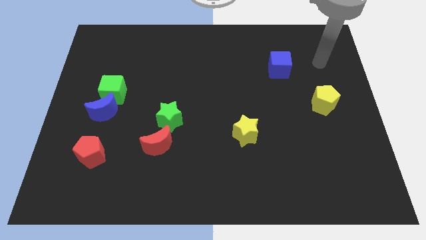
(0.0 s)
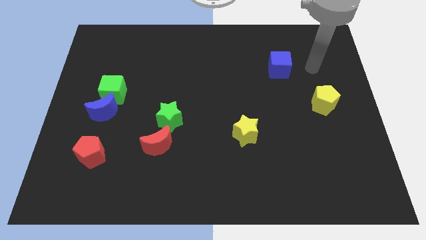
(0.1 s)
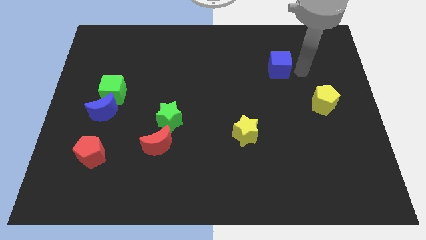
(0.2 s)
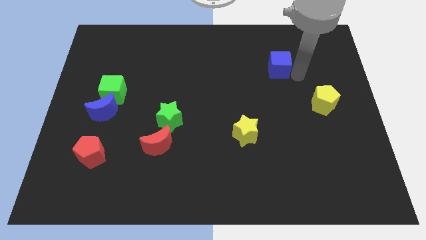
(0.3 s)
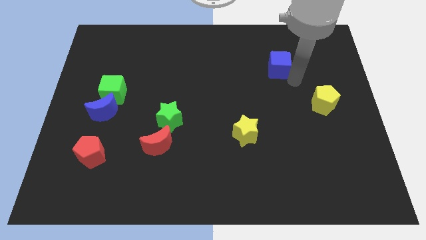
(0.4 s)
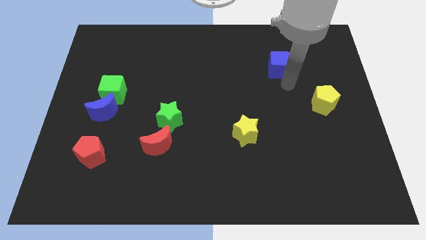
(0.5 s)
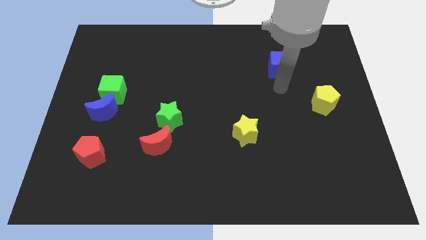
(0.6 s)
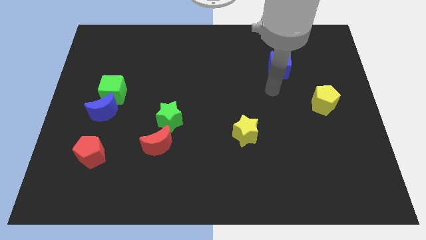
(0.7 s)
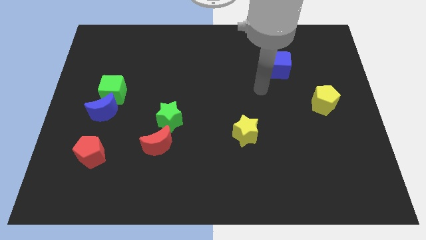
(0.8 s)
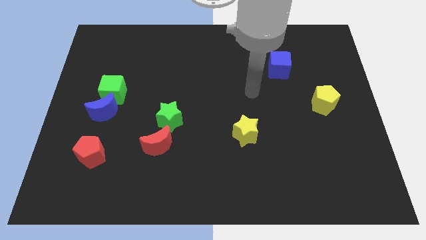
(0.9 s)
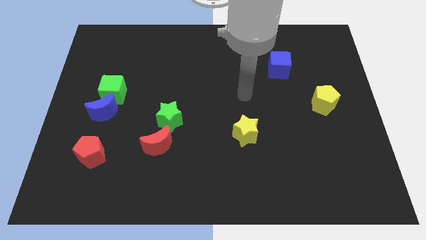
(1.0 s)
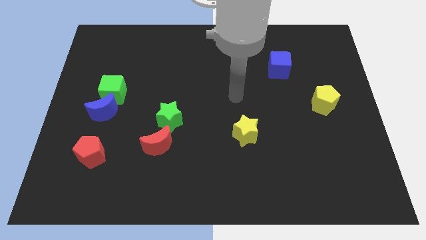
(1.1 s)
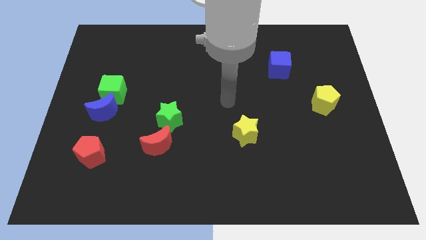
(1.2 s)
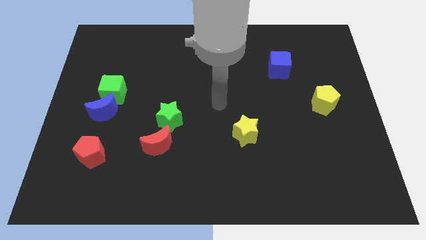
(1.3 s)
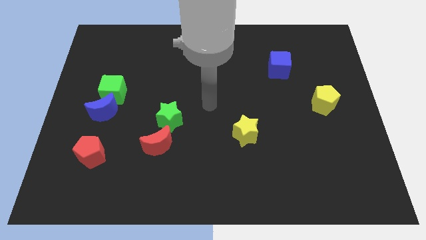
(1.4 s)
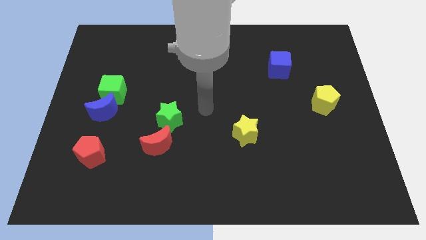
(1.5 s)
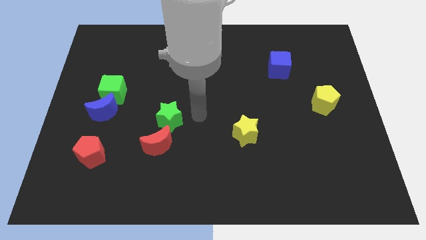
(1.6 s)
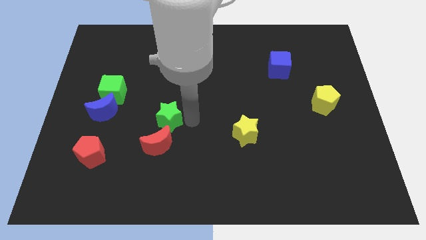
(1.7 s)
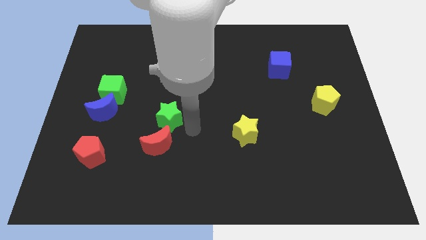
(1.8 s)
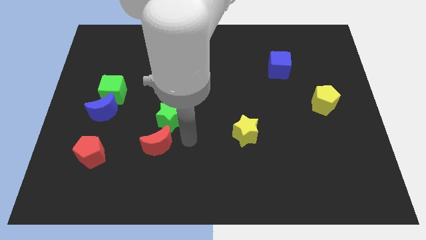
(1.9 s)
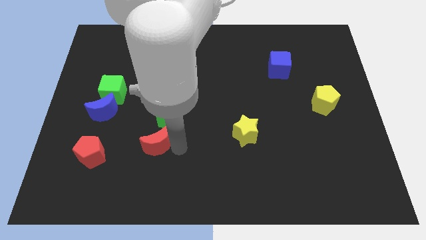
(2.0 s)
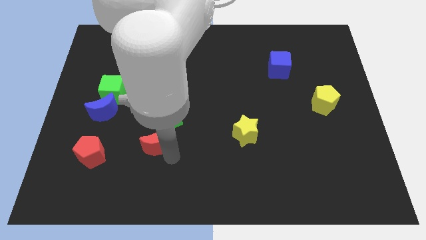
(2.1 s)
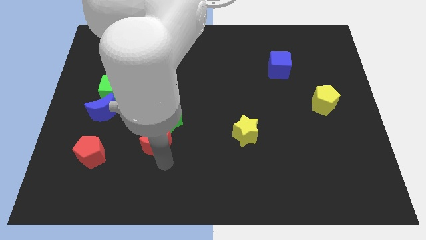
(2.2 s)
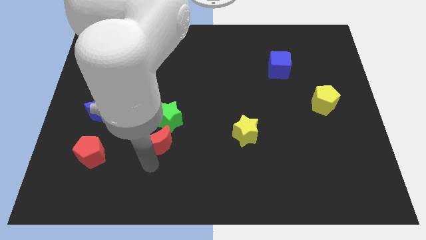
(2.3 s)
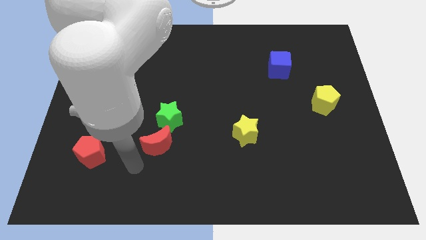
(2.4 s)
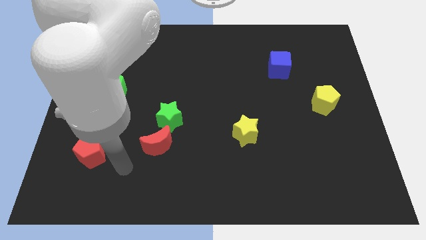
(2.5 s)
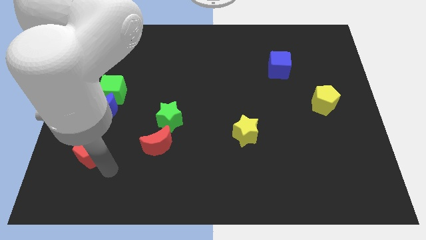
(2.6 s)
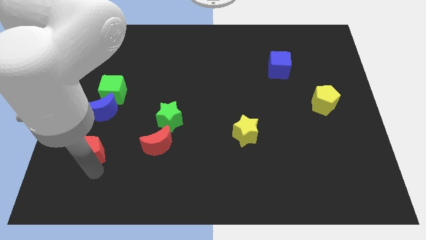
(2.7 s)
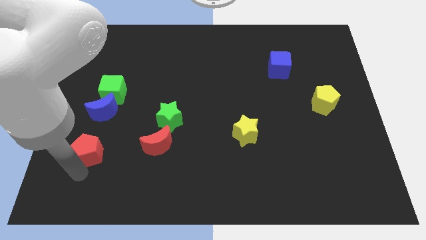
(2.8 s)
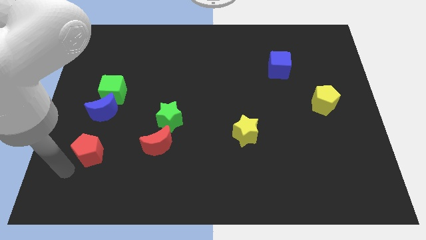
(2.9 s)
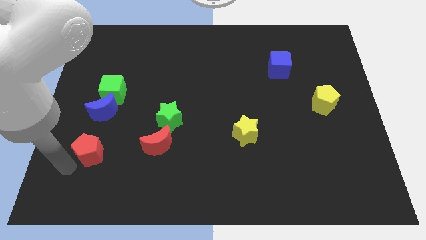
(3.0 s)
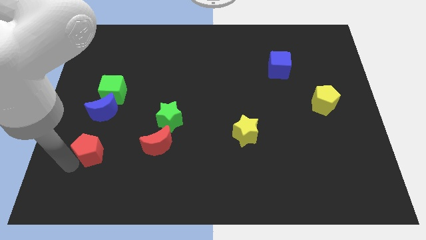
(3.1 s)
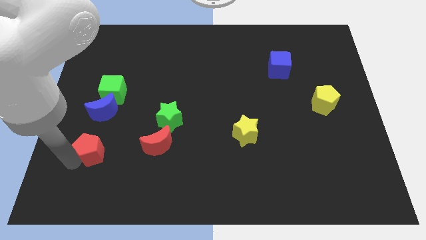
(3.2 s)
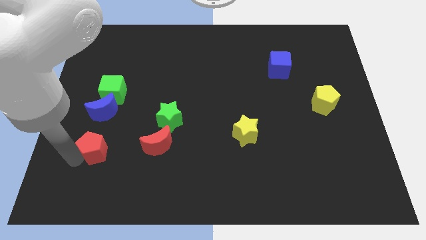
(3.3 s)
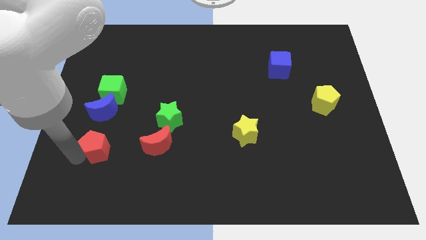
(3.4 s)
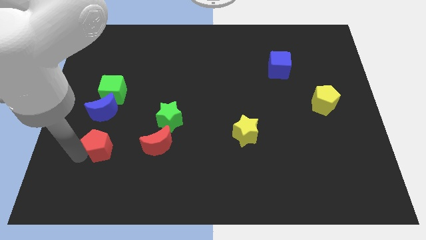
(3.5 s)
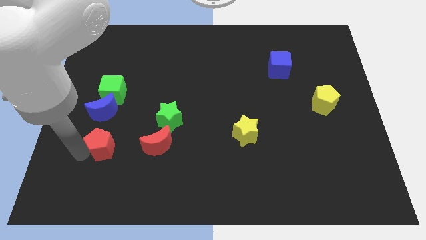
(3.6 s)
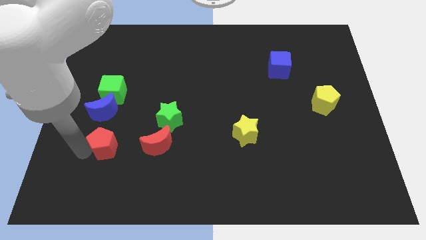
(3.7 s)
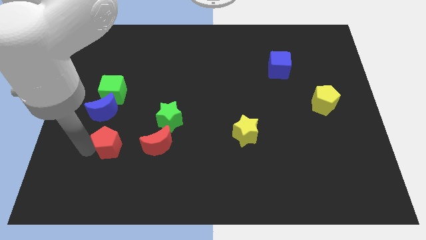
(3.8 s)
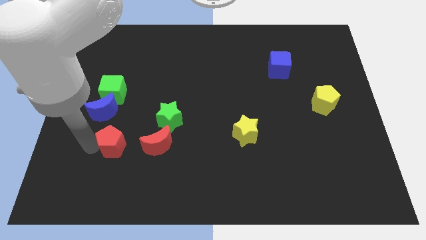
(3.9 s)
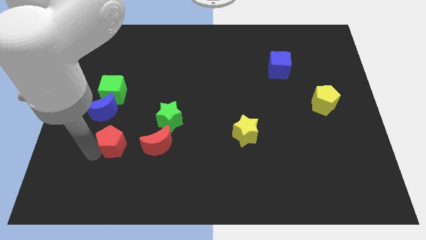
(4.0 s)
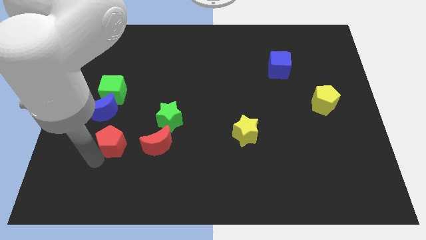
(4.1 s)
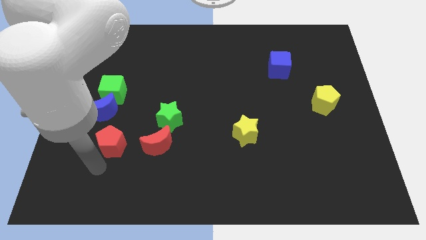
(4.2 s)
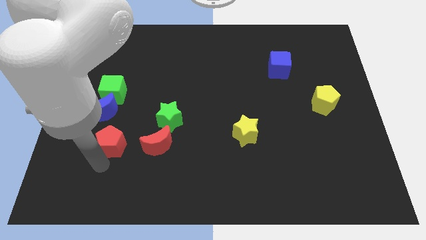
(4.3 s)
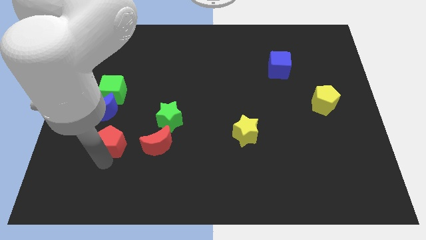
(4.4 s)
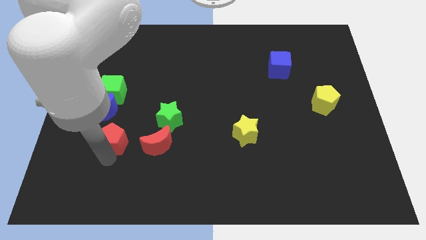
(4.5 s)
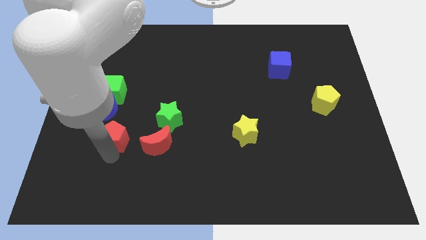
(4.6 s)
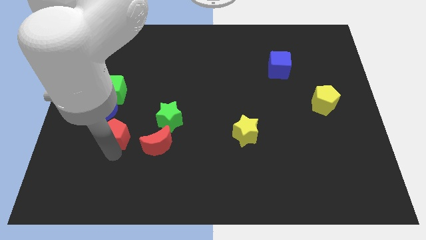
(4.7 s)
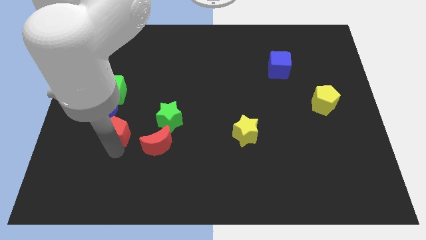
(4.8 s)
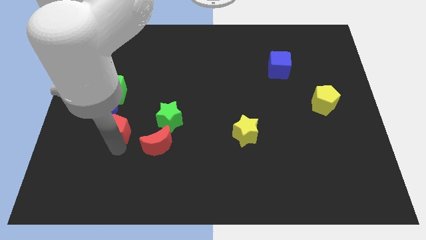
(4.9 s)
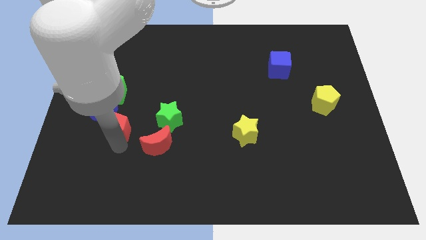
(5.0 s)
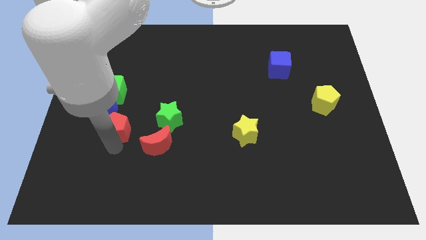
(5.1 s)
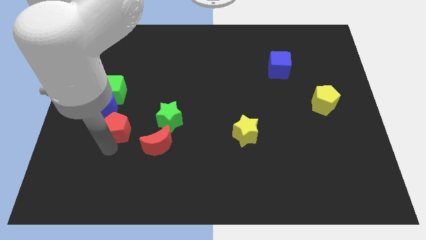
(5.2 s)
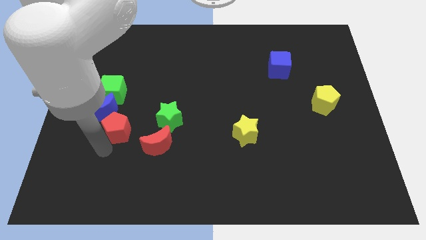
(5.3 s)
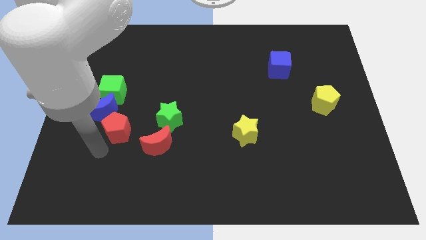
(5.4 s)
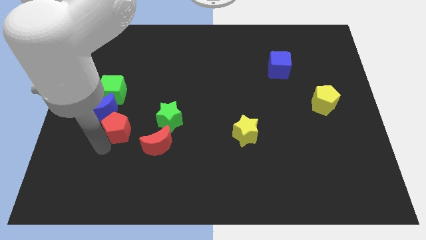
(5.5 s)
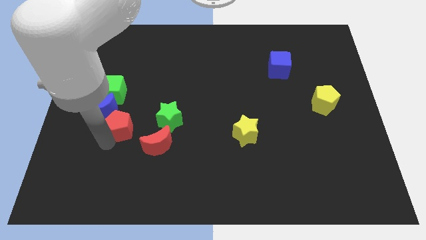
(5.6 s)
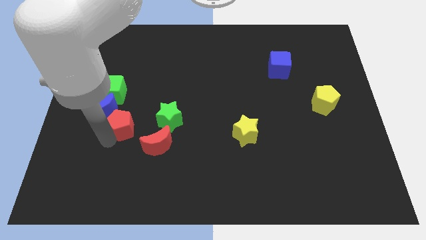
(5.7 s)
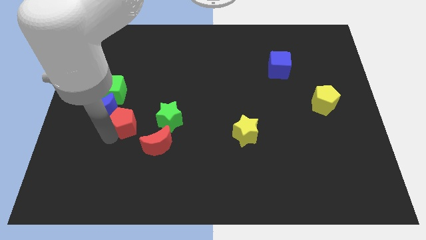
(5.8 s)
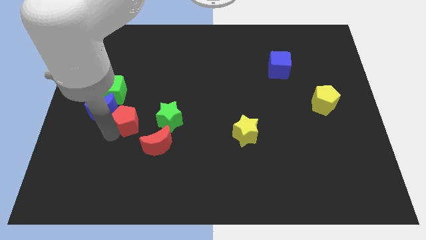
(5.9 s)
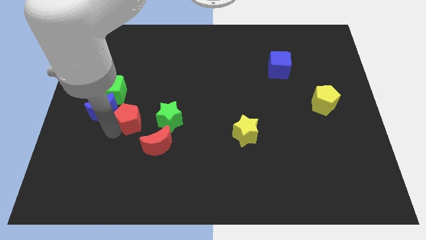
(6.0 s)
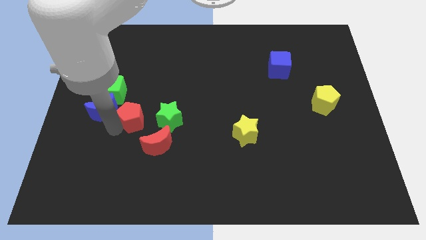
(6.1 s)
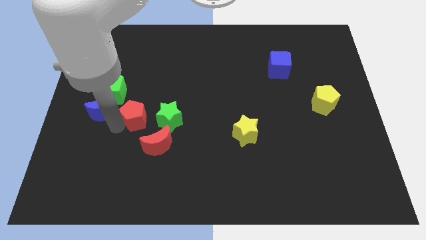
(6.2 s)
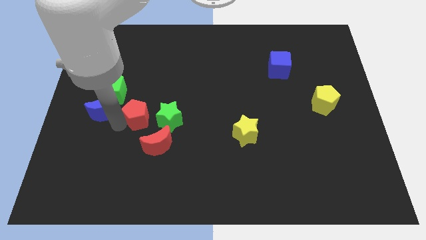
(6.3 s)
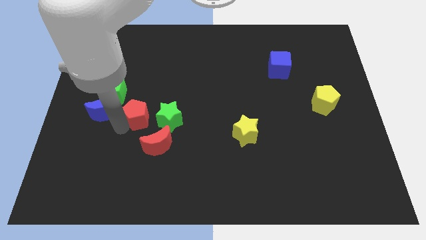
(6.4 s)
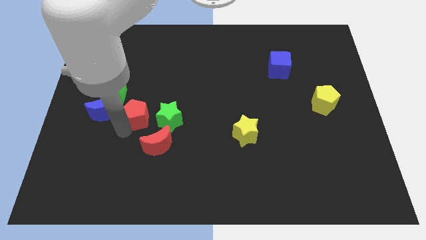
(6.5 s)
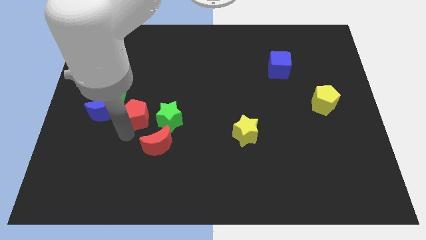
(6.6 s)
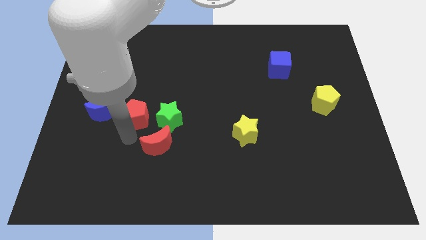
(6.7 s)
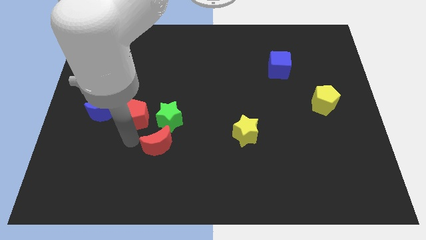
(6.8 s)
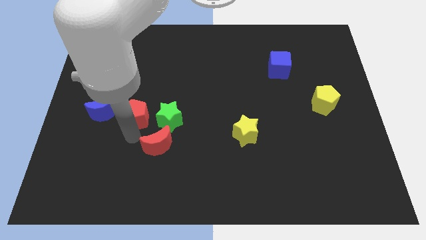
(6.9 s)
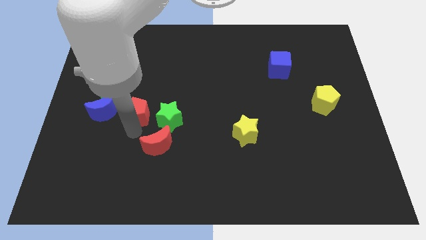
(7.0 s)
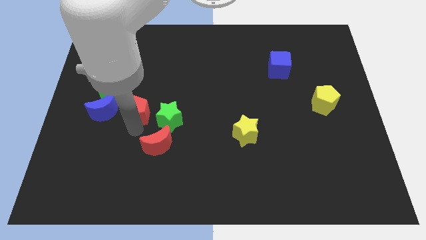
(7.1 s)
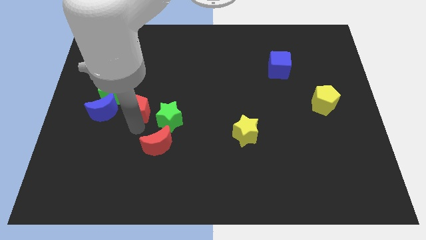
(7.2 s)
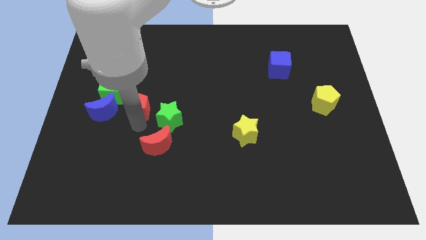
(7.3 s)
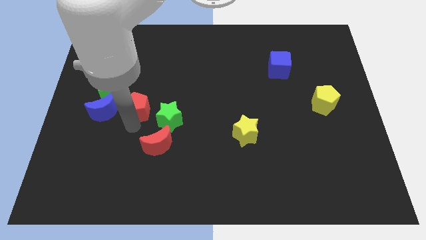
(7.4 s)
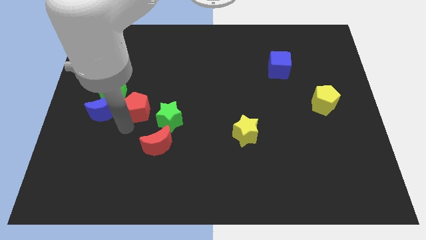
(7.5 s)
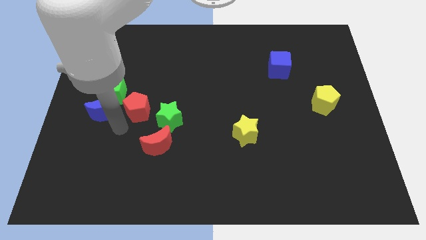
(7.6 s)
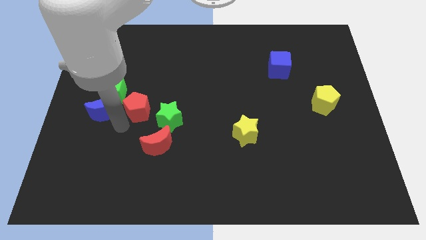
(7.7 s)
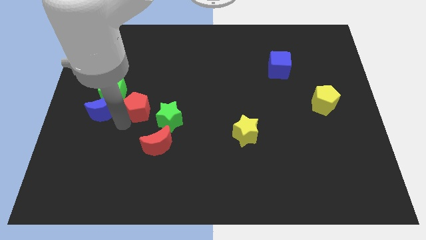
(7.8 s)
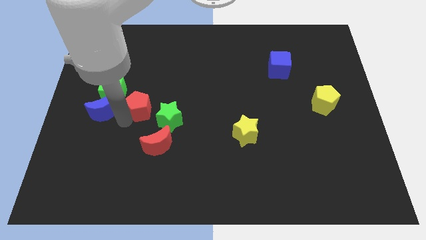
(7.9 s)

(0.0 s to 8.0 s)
move the red pentagon to the right side of the green cube
